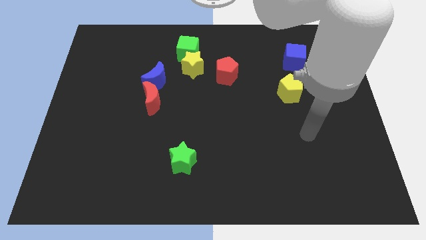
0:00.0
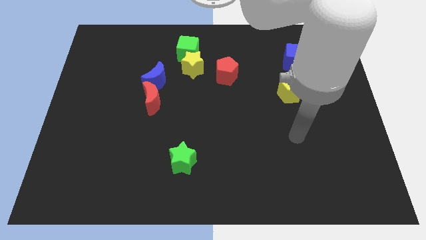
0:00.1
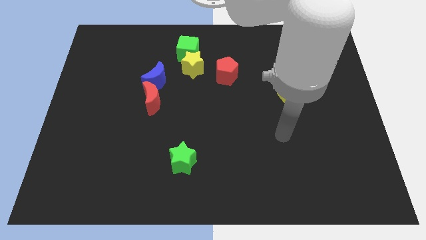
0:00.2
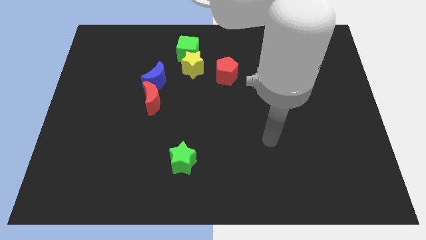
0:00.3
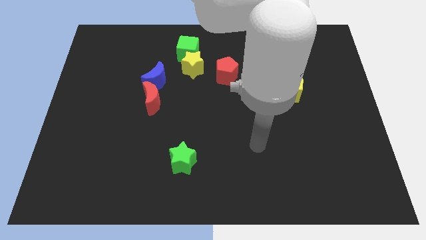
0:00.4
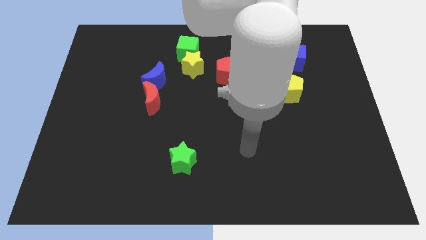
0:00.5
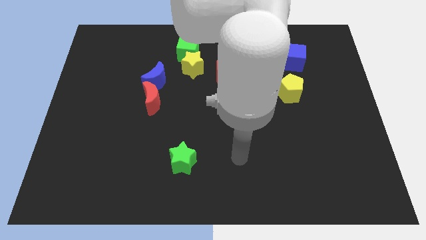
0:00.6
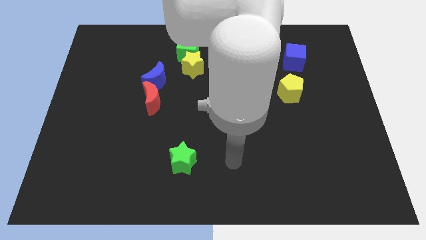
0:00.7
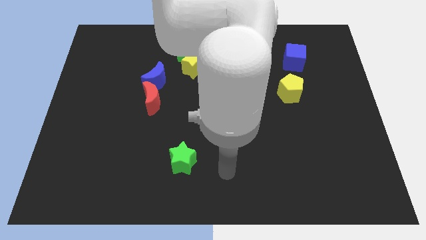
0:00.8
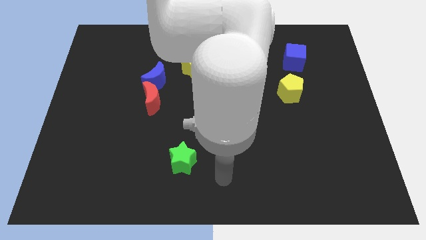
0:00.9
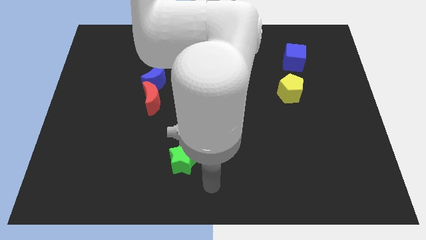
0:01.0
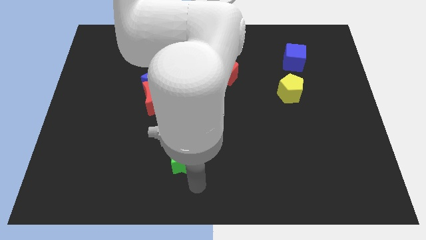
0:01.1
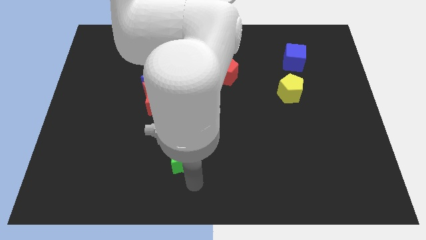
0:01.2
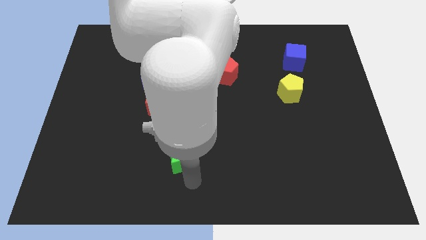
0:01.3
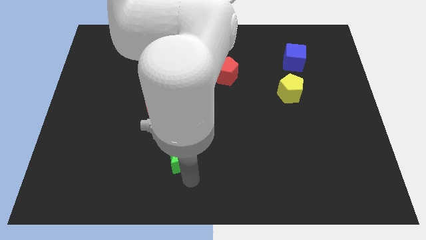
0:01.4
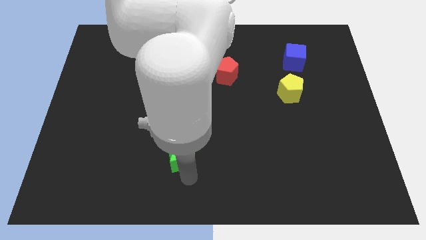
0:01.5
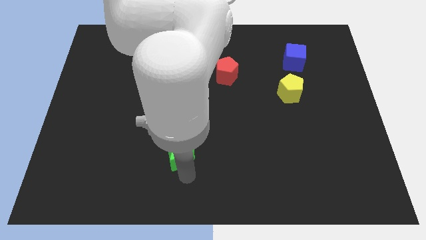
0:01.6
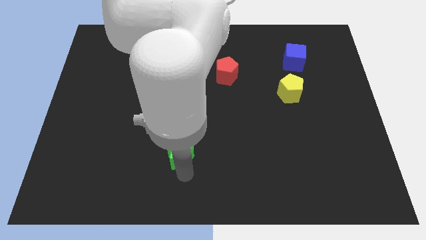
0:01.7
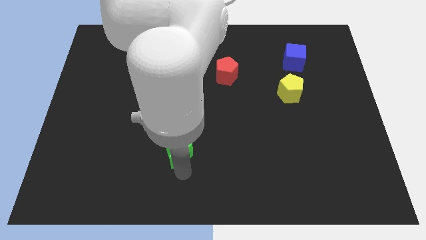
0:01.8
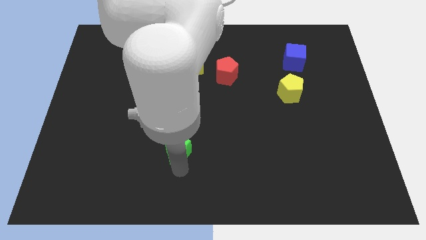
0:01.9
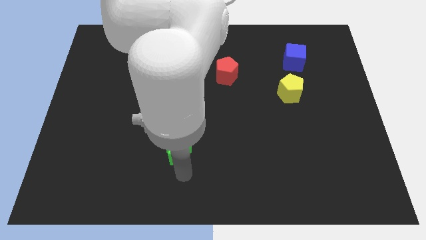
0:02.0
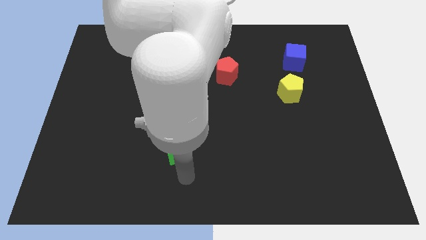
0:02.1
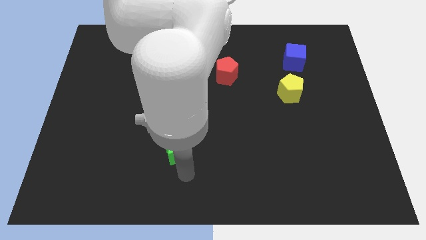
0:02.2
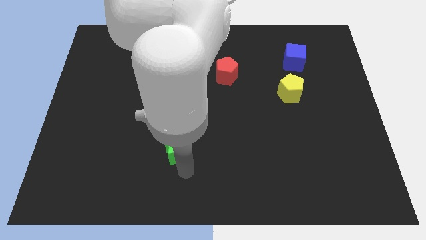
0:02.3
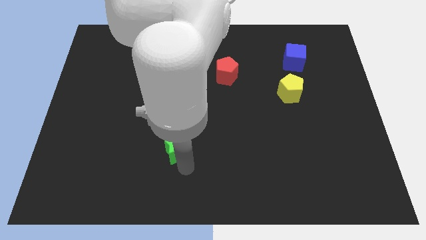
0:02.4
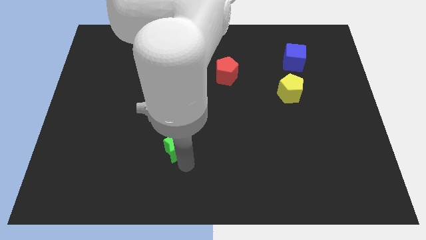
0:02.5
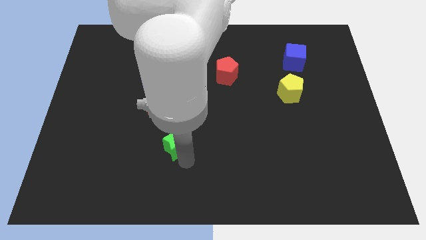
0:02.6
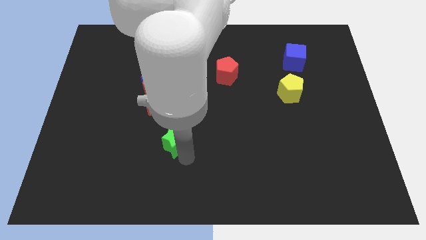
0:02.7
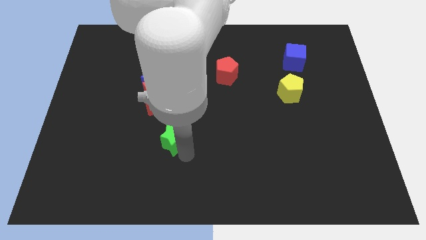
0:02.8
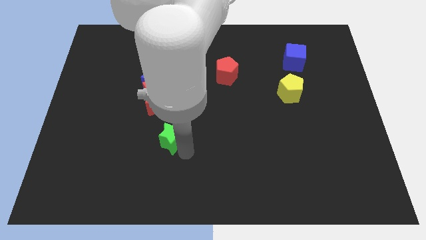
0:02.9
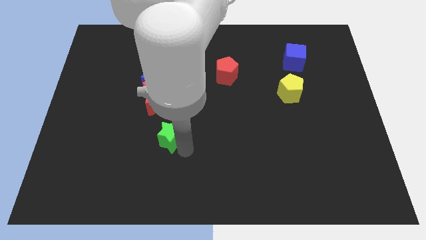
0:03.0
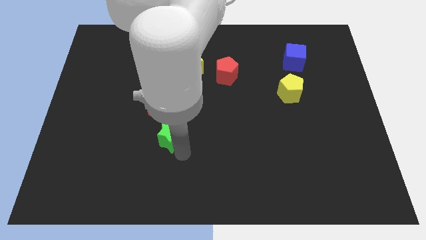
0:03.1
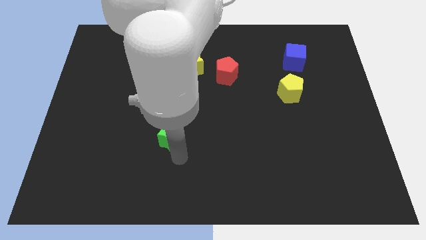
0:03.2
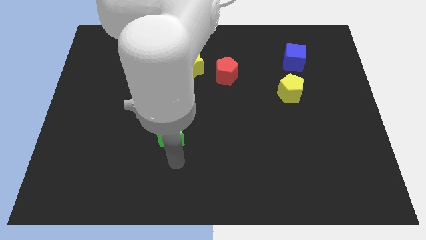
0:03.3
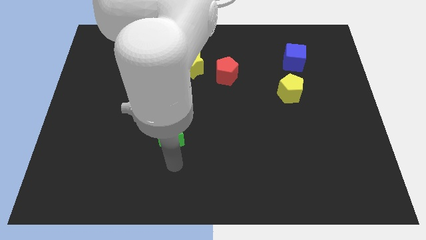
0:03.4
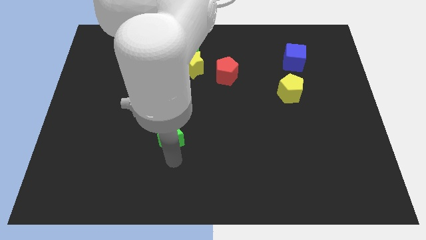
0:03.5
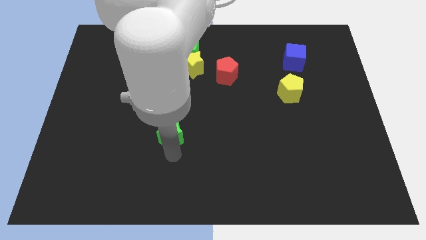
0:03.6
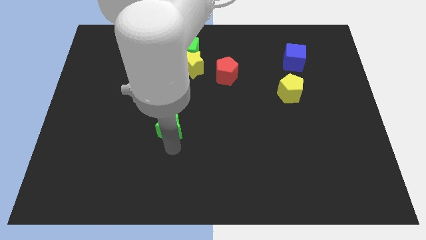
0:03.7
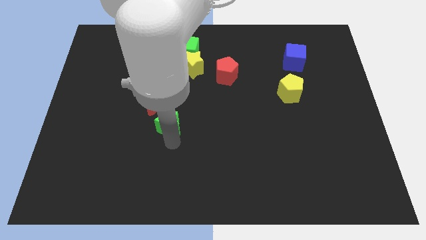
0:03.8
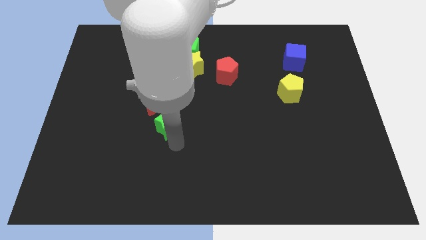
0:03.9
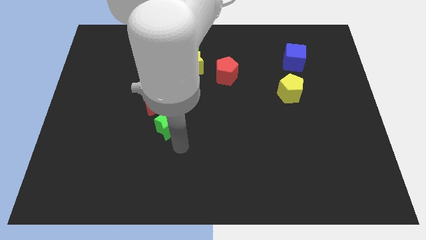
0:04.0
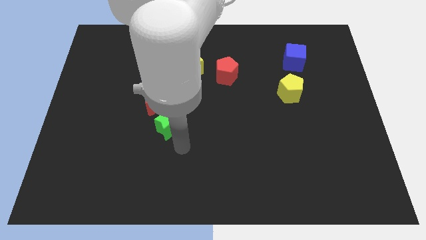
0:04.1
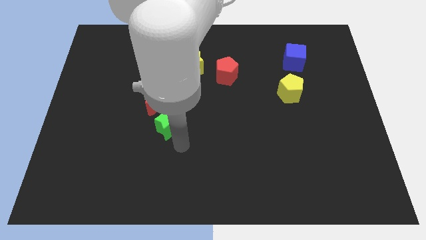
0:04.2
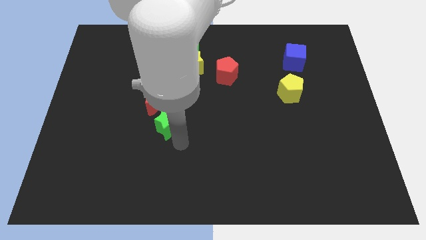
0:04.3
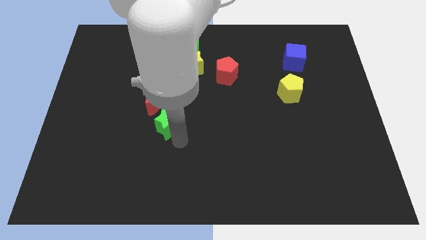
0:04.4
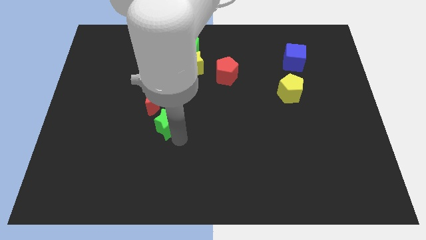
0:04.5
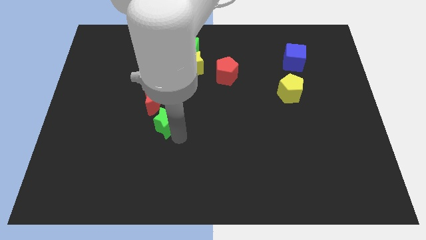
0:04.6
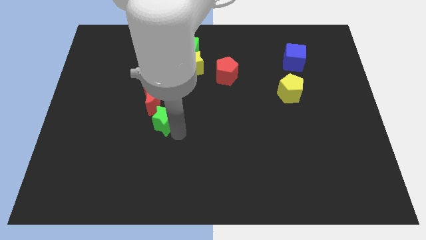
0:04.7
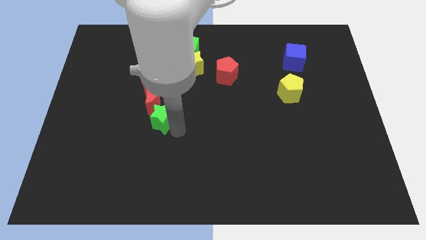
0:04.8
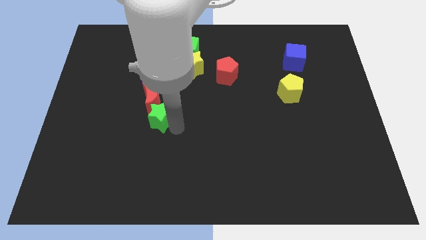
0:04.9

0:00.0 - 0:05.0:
put the green star close to the red moon

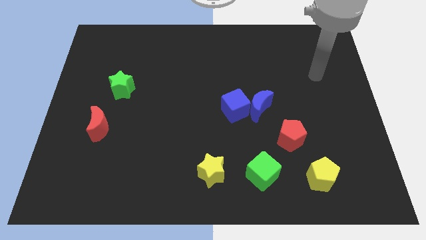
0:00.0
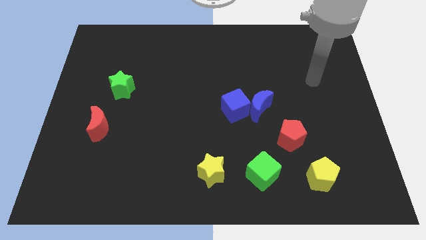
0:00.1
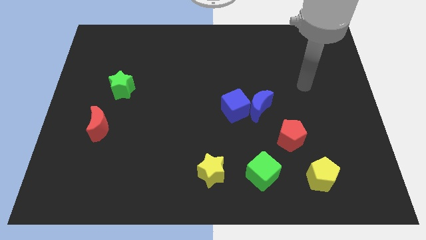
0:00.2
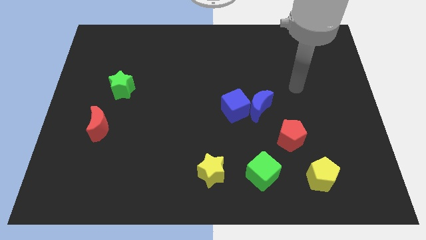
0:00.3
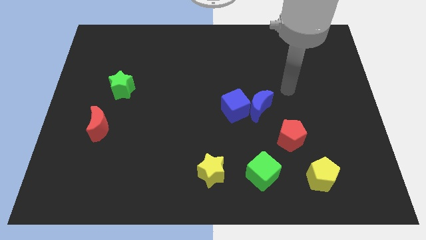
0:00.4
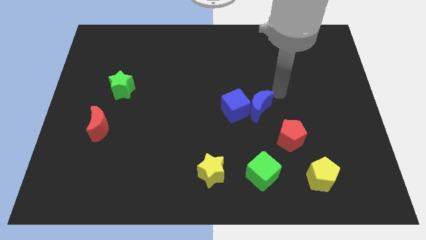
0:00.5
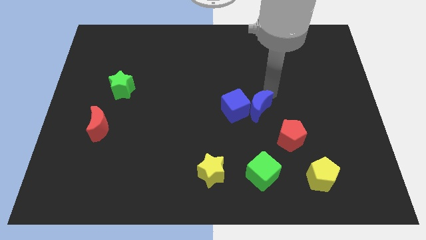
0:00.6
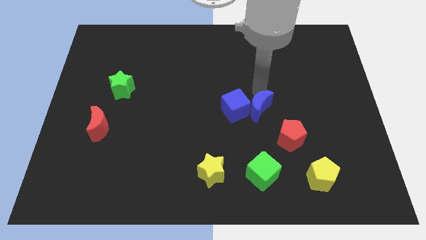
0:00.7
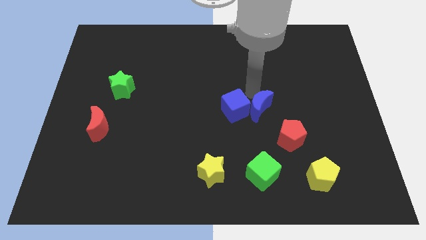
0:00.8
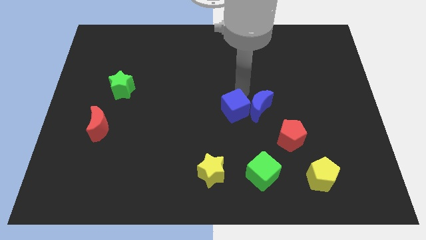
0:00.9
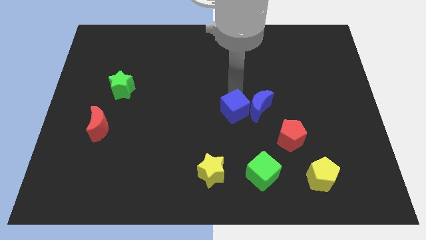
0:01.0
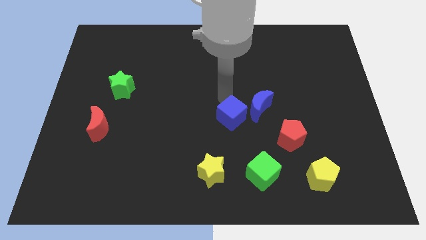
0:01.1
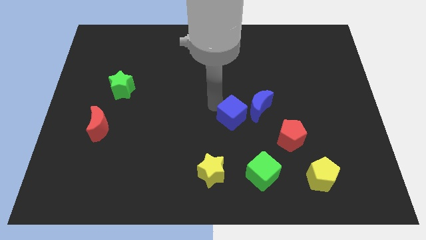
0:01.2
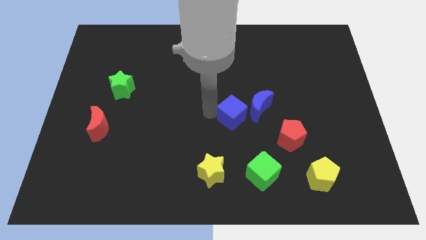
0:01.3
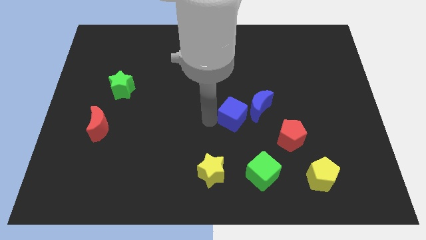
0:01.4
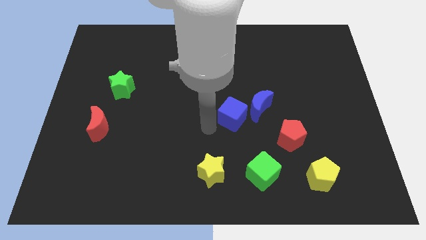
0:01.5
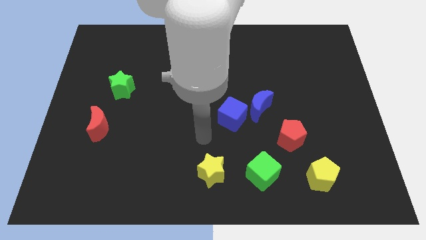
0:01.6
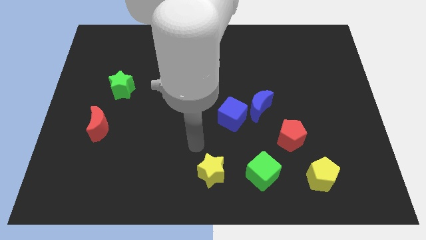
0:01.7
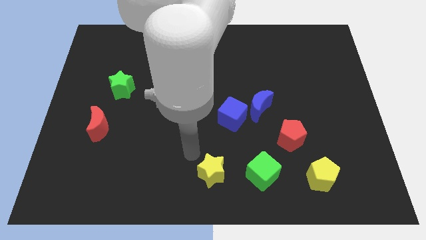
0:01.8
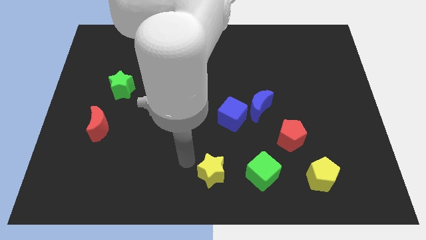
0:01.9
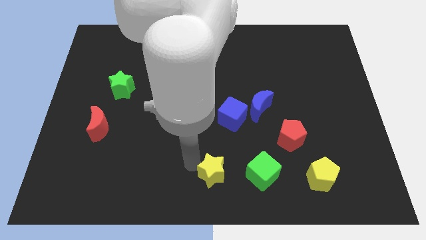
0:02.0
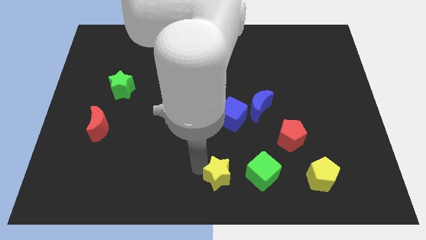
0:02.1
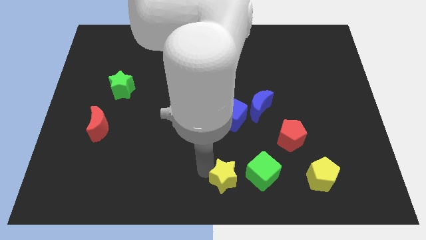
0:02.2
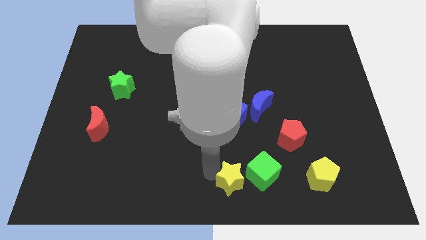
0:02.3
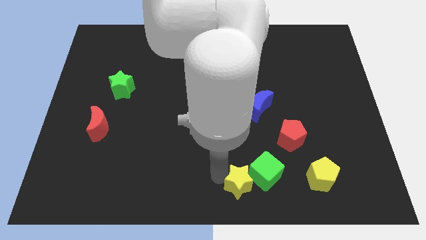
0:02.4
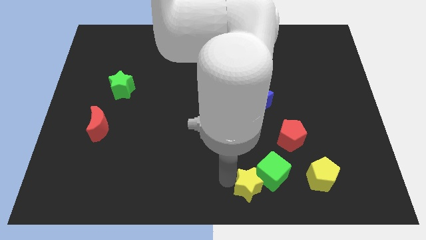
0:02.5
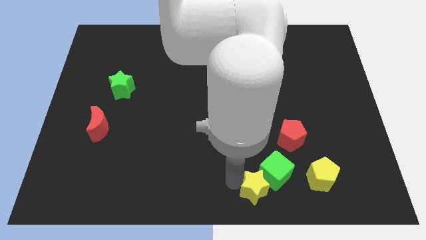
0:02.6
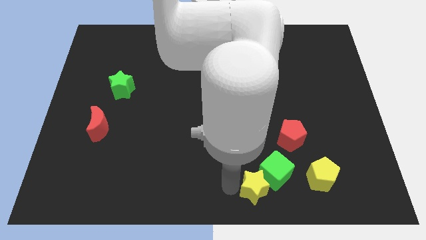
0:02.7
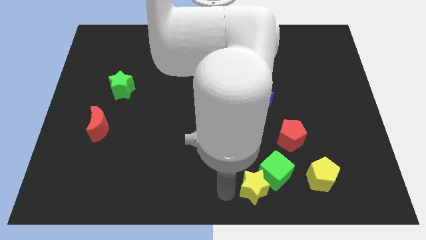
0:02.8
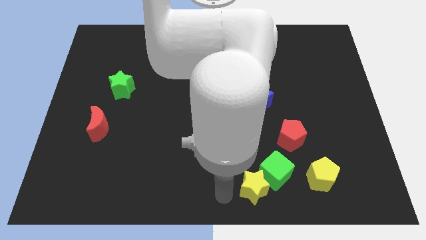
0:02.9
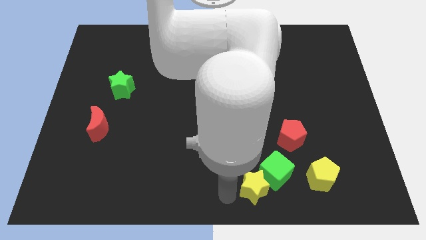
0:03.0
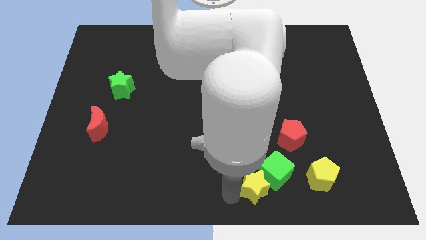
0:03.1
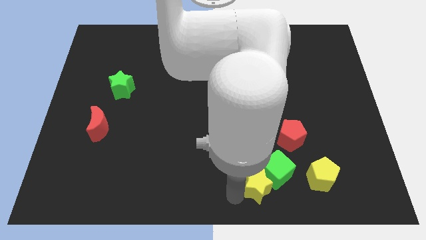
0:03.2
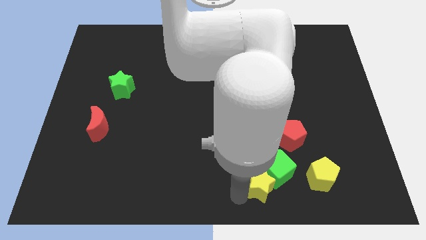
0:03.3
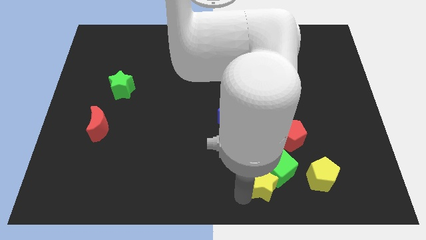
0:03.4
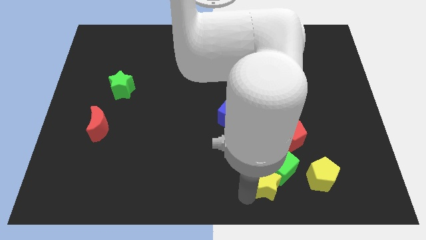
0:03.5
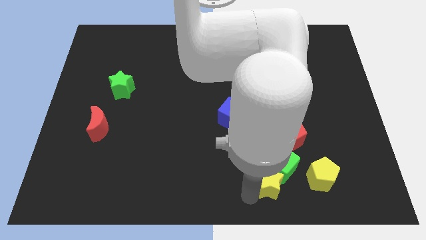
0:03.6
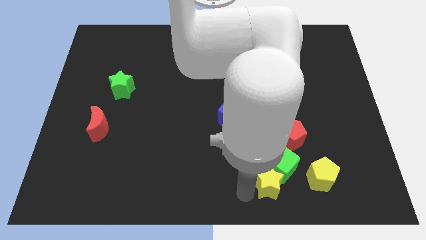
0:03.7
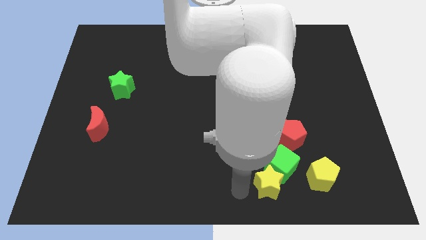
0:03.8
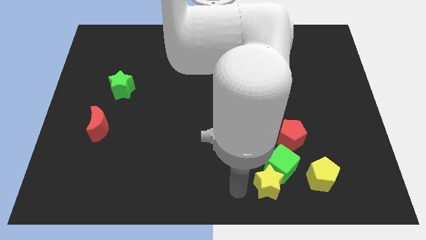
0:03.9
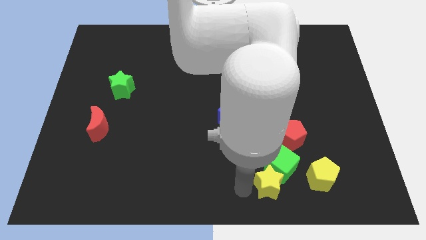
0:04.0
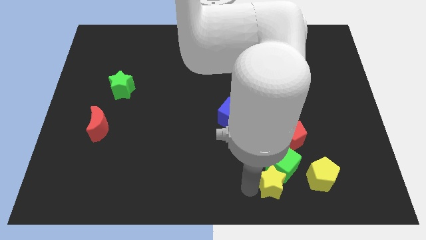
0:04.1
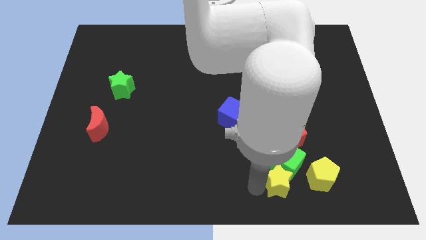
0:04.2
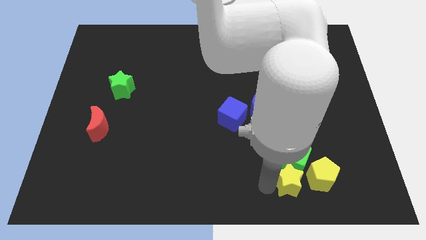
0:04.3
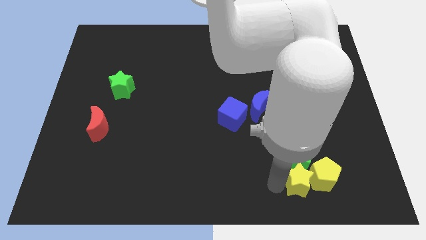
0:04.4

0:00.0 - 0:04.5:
push the yellow star next to the yellow pentagon
